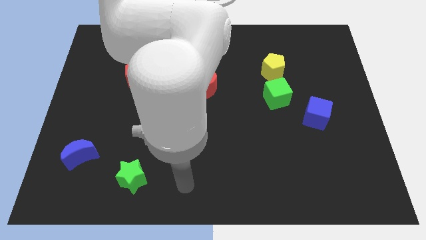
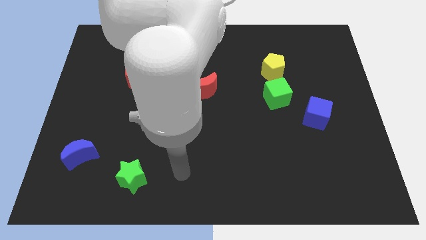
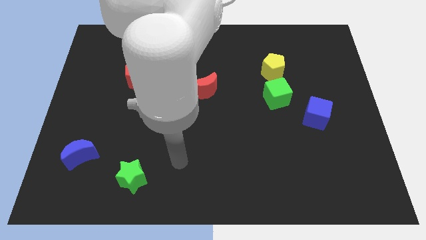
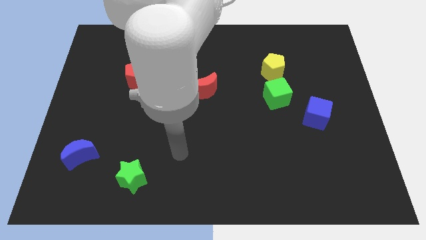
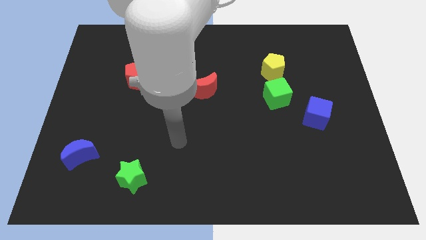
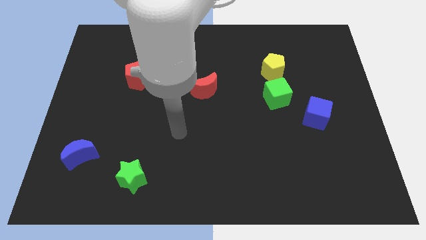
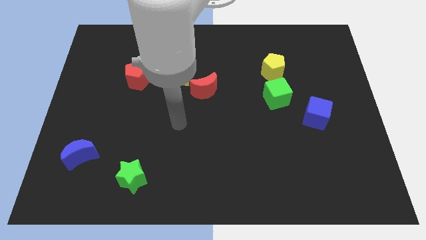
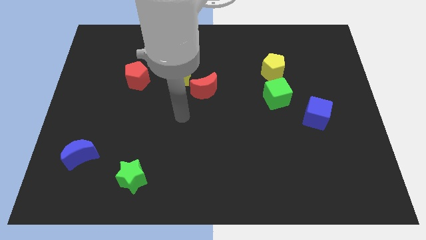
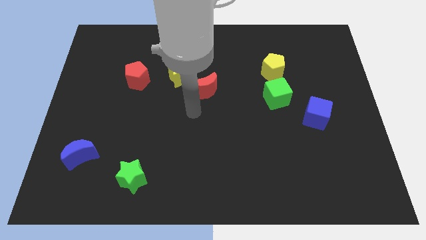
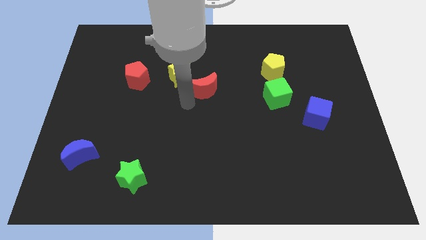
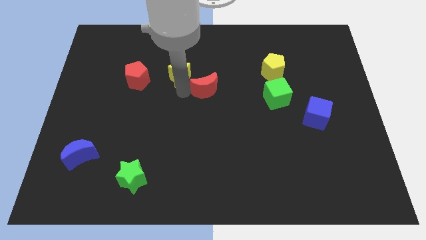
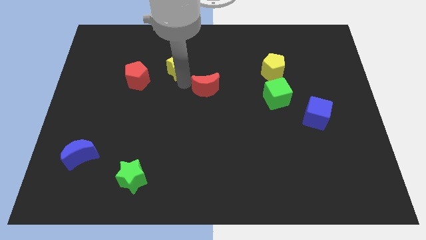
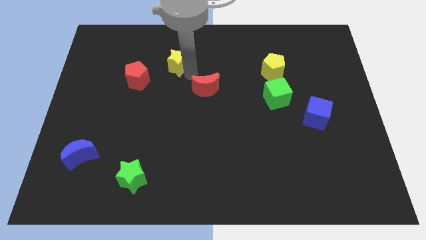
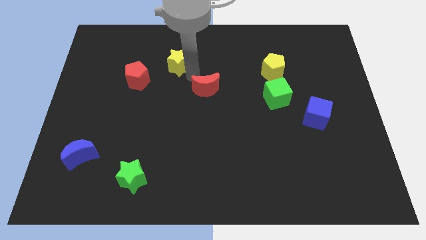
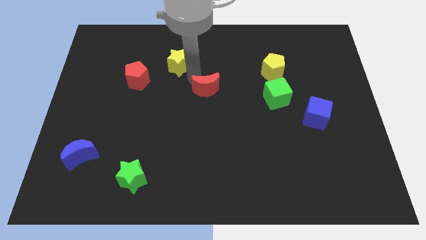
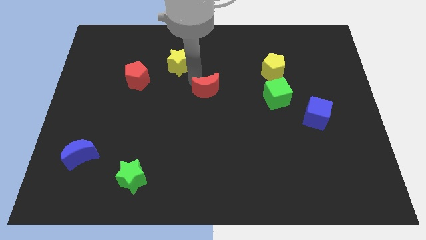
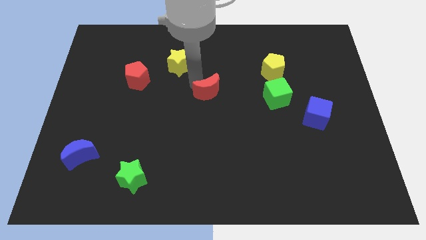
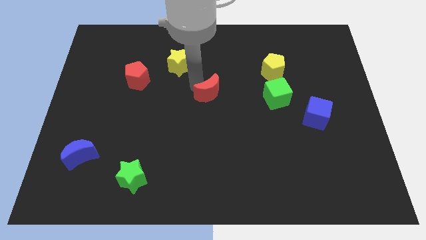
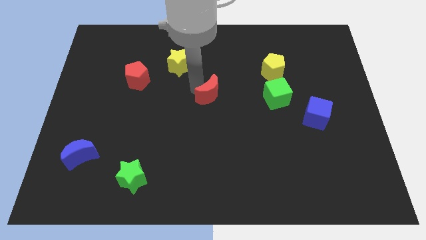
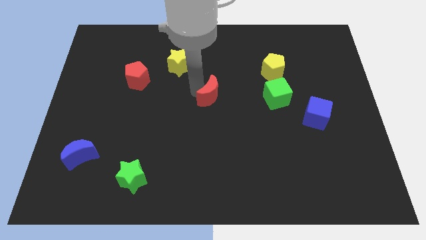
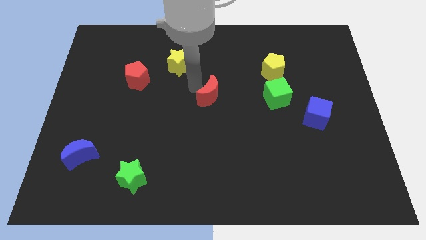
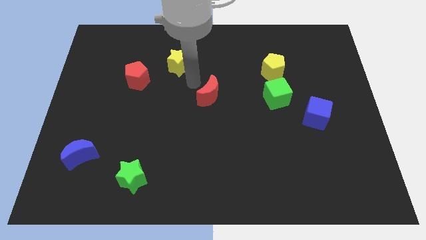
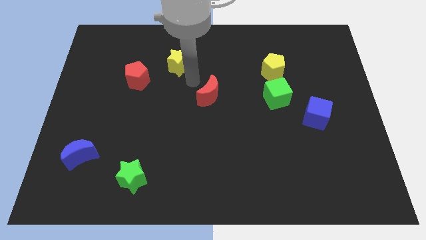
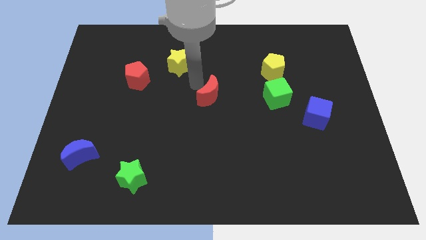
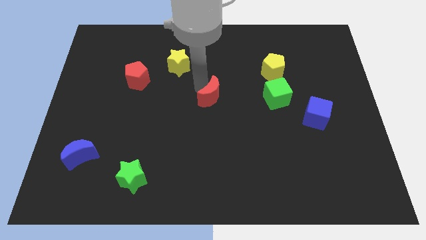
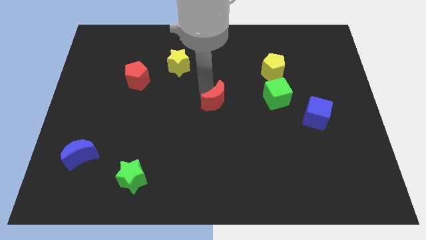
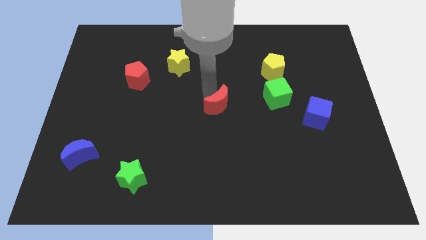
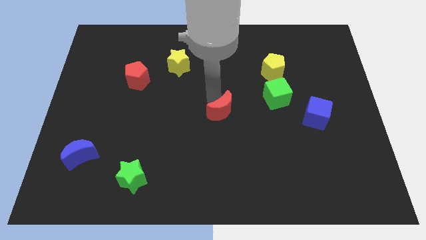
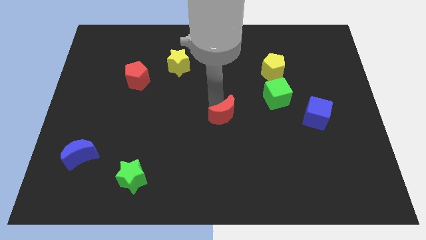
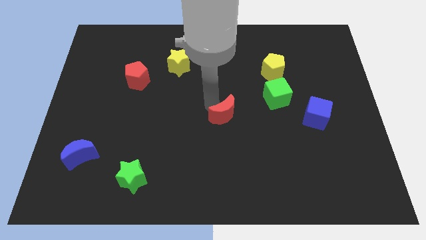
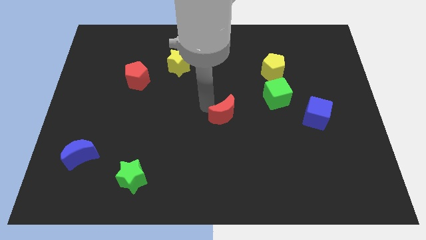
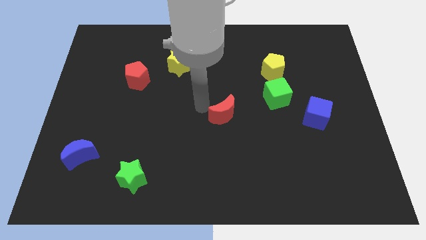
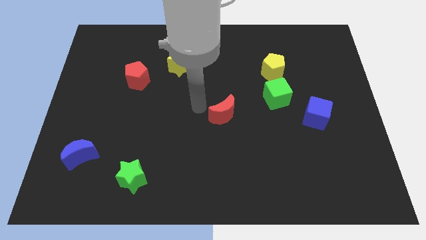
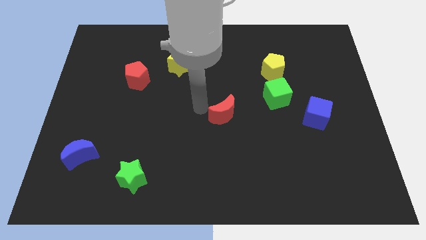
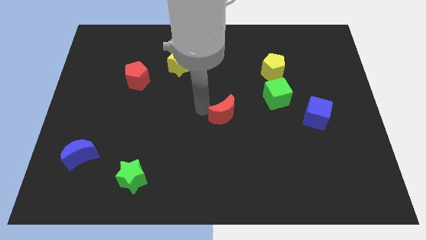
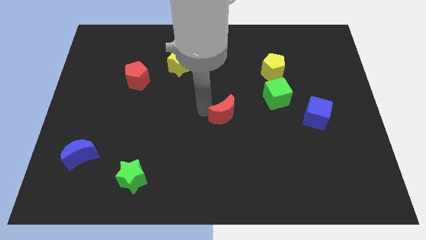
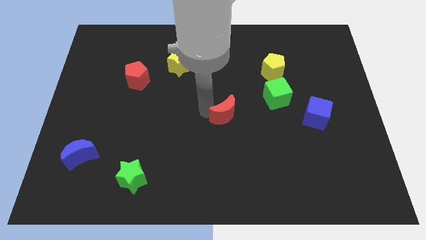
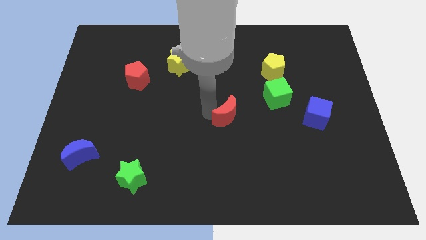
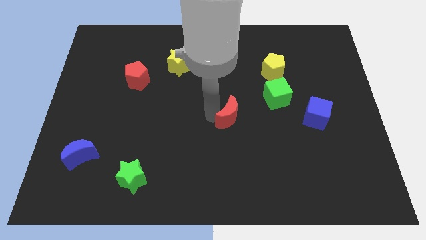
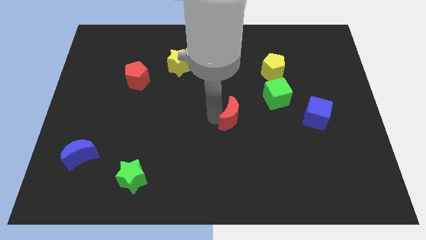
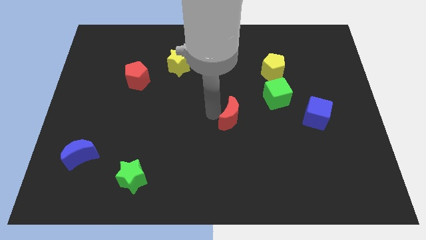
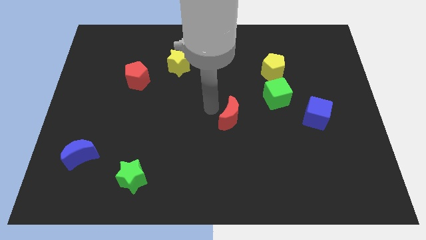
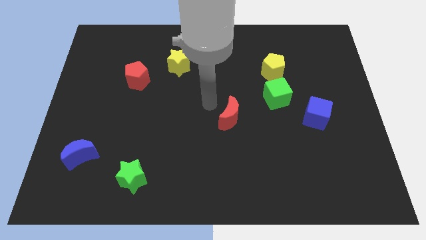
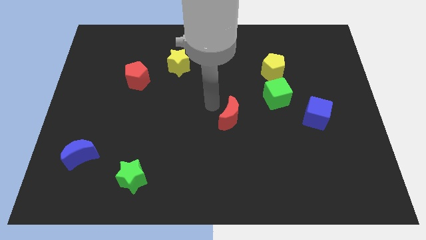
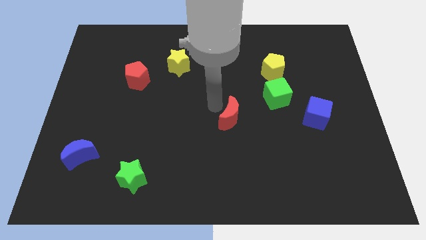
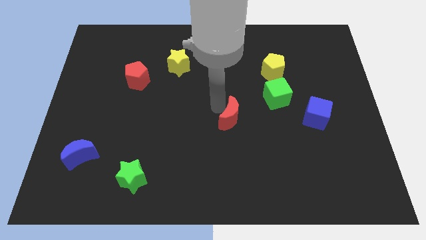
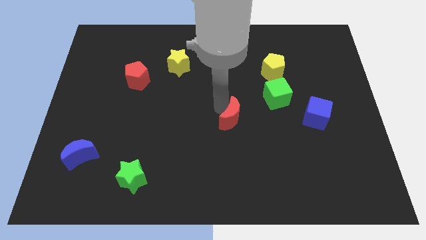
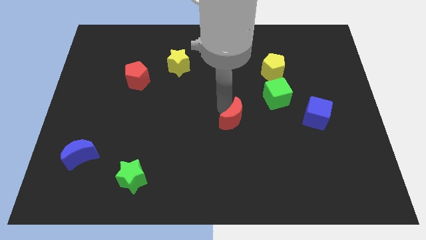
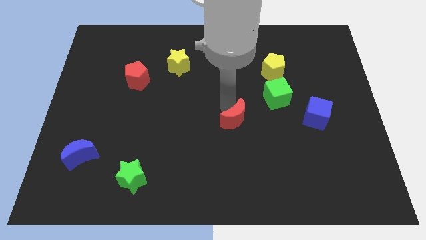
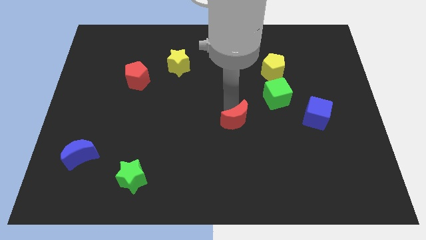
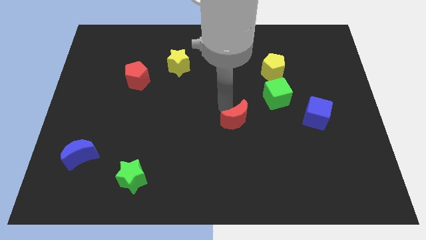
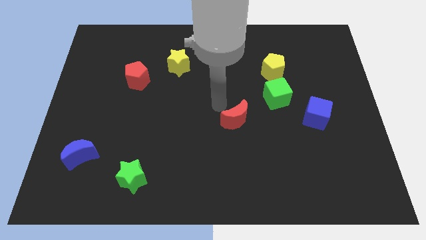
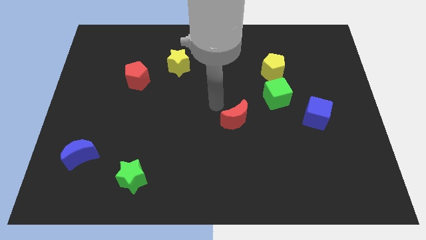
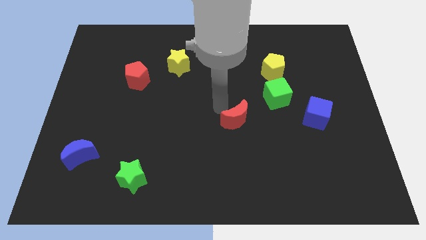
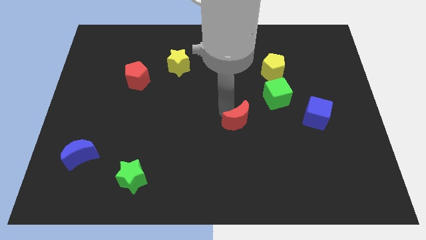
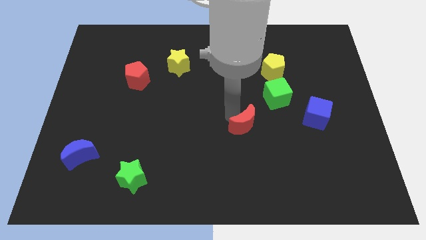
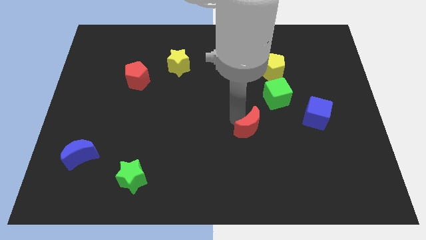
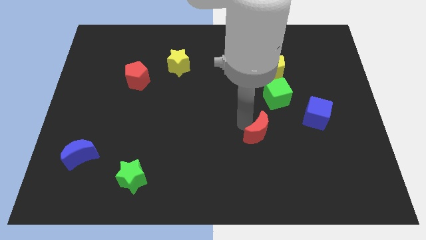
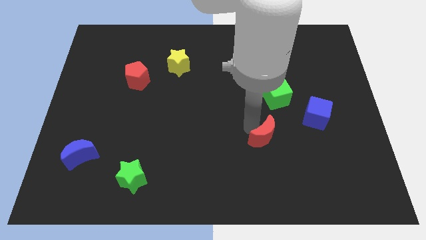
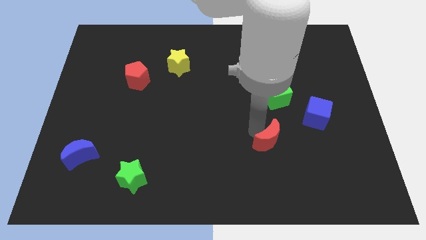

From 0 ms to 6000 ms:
slide the red moon down and to the right diagonally

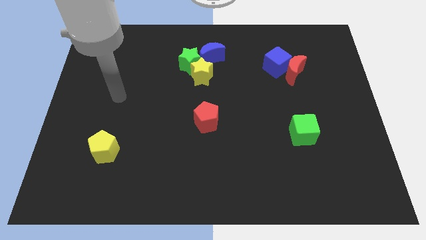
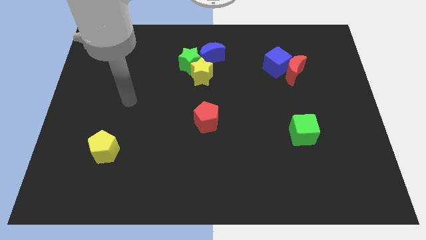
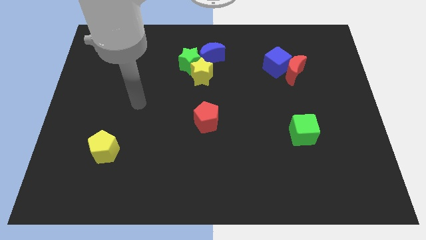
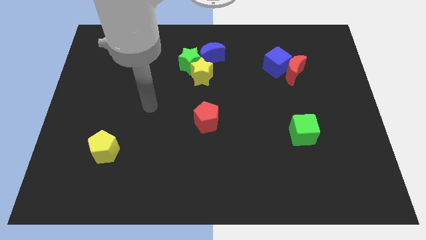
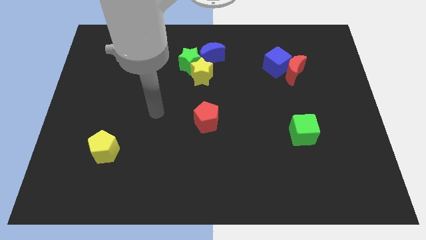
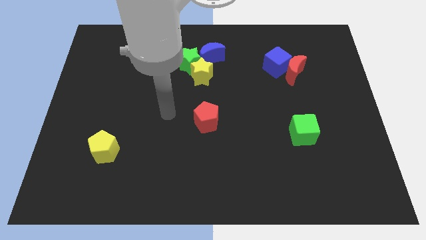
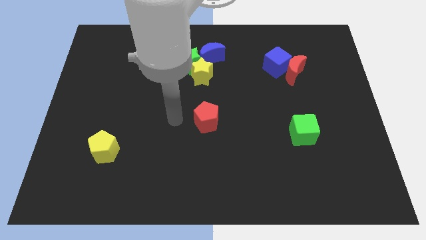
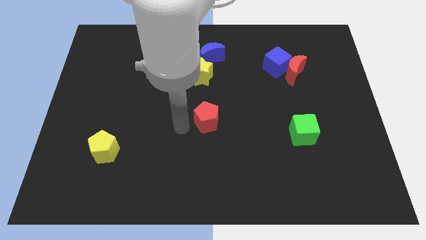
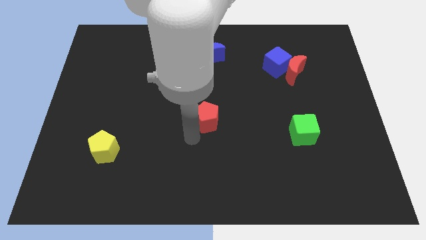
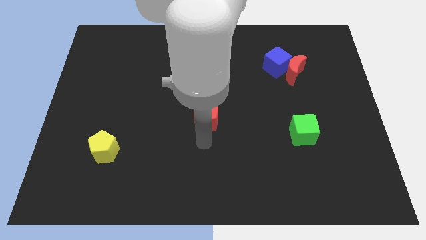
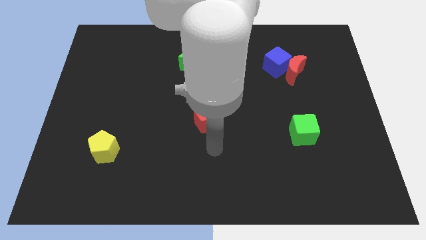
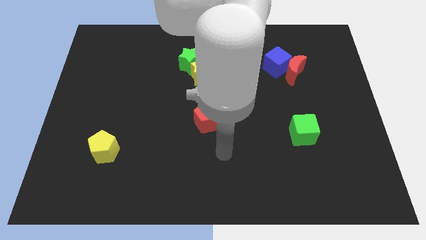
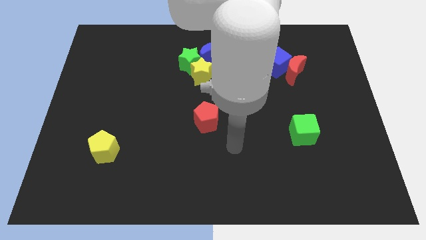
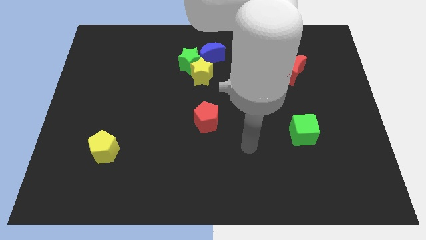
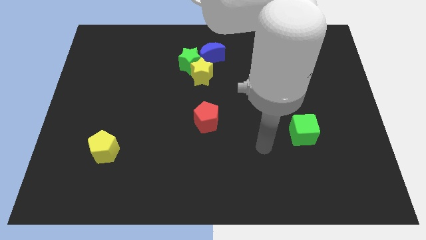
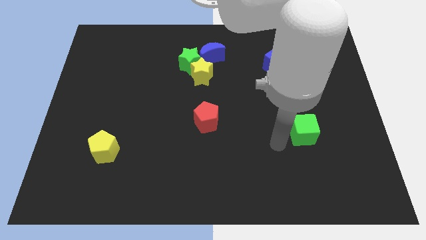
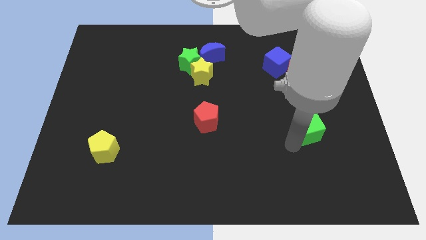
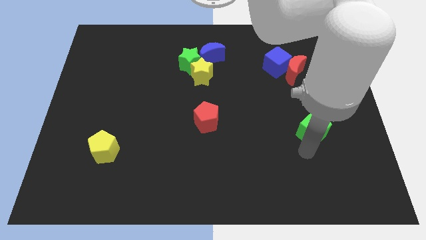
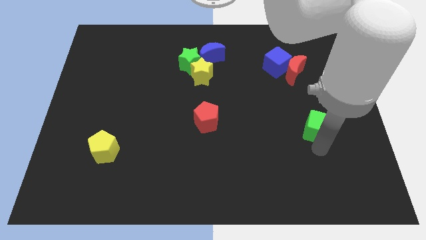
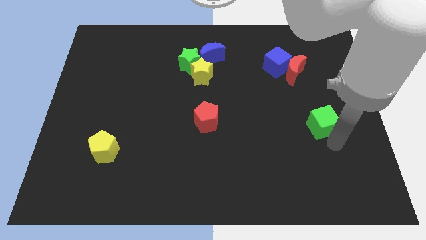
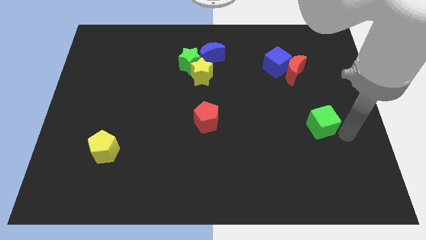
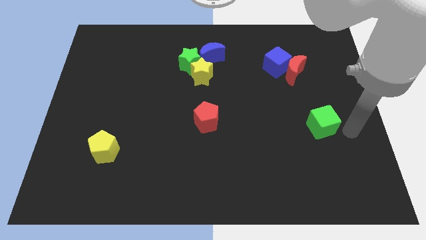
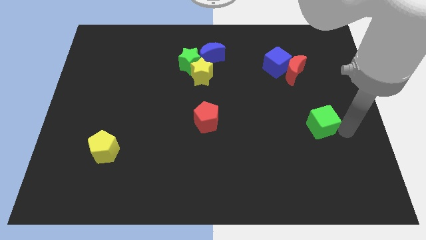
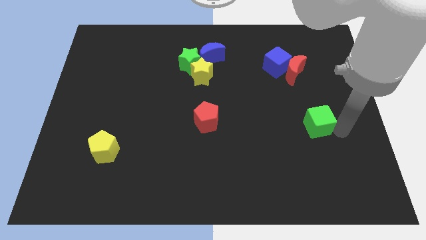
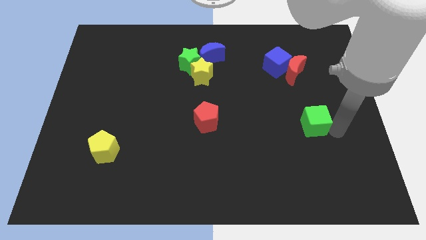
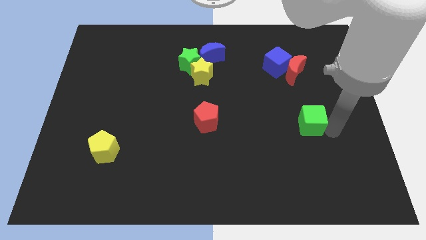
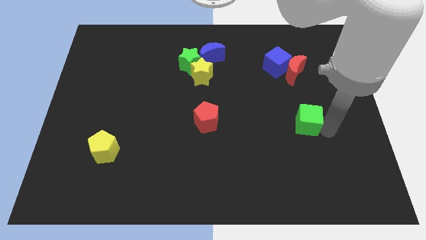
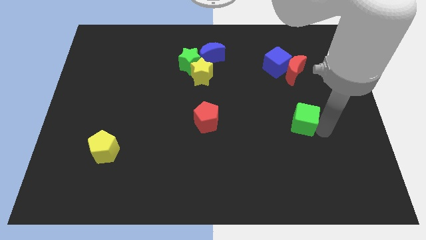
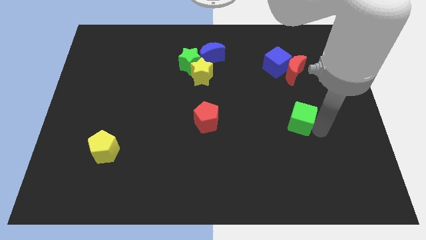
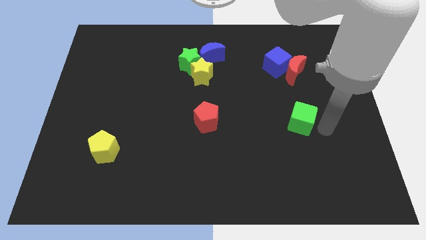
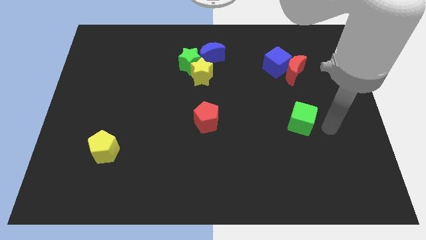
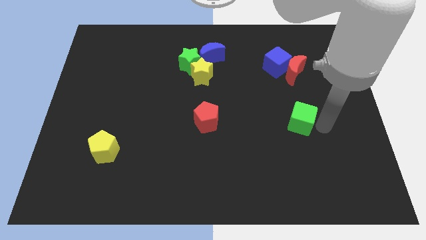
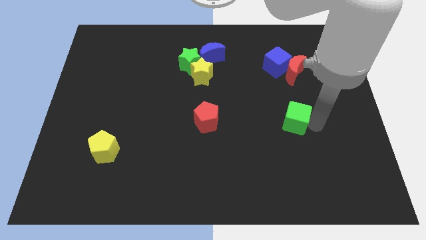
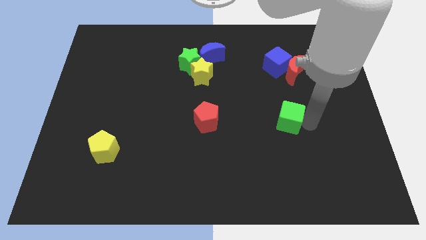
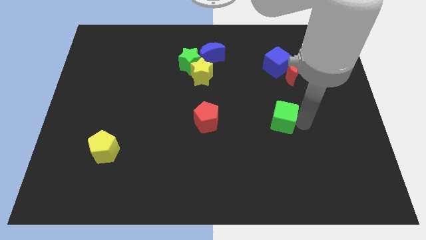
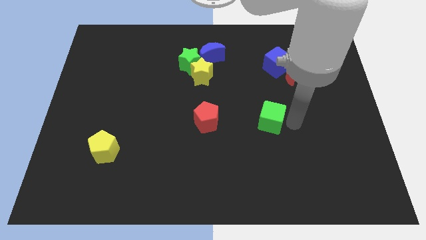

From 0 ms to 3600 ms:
move the green cube a little bit upwards and then left
